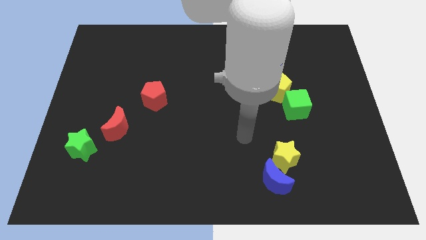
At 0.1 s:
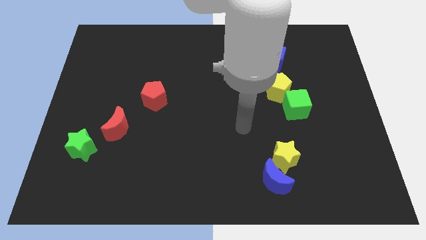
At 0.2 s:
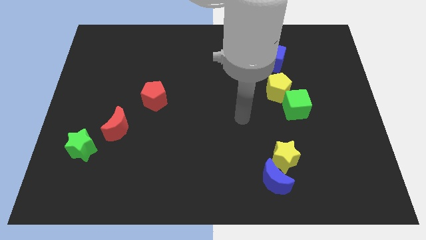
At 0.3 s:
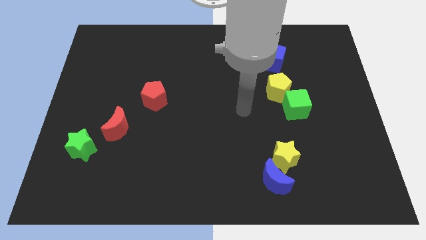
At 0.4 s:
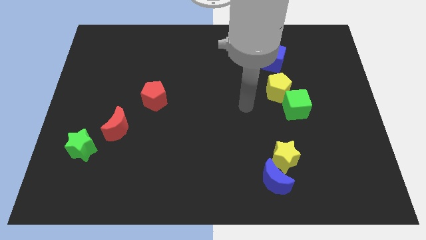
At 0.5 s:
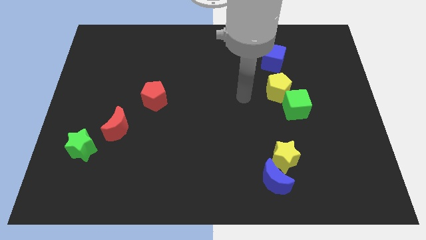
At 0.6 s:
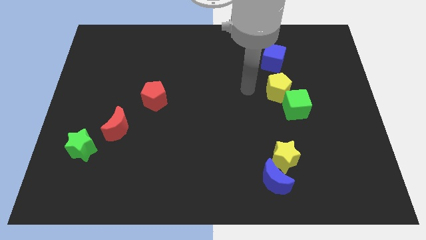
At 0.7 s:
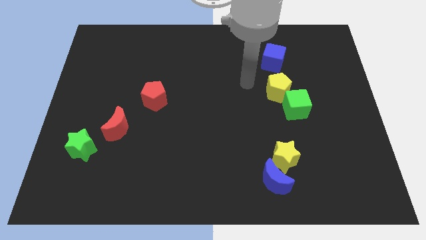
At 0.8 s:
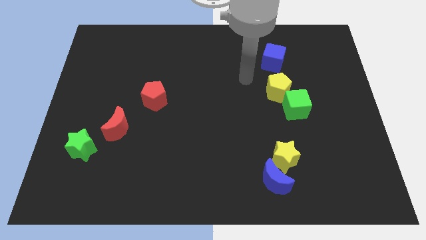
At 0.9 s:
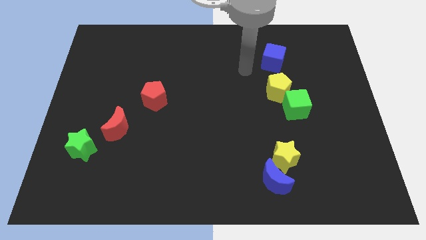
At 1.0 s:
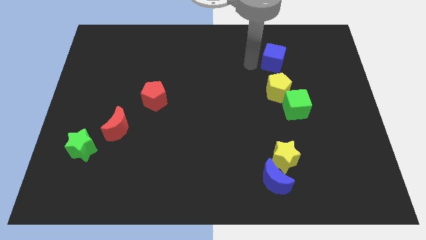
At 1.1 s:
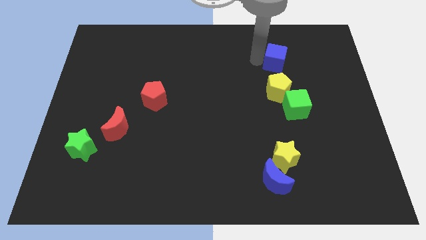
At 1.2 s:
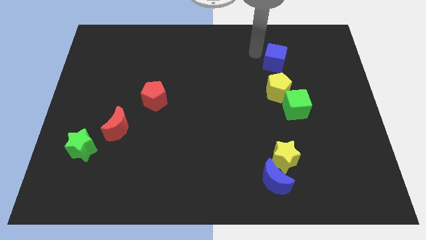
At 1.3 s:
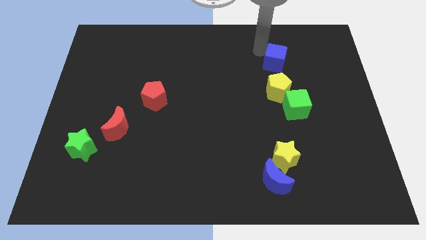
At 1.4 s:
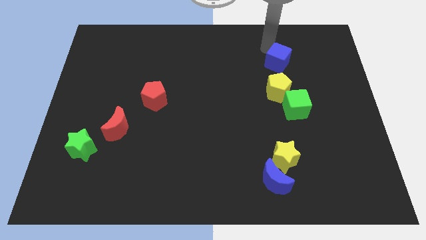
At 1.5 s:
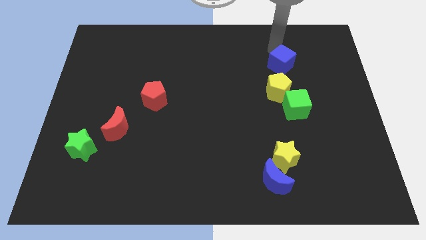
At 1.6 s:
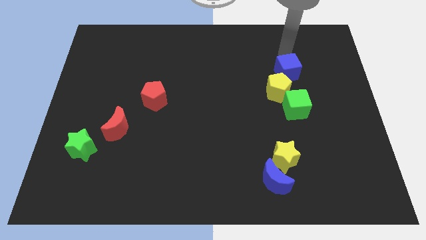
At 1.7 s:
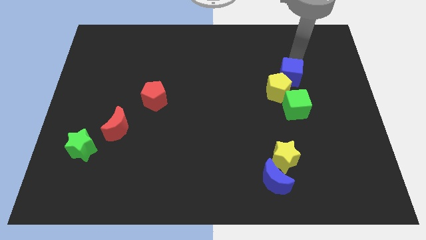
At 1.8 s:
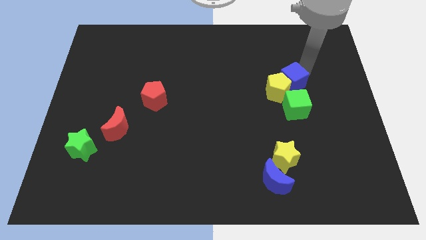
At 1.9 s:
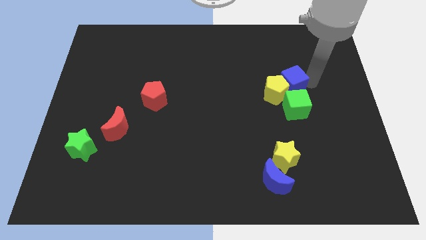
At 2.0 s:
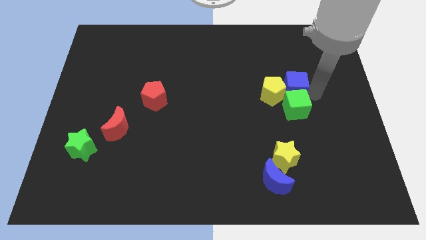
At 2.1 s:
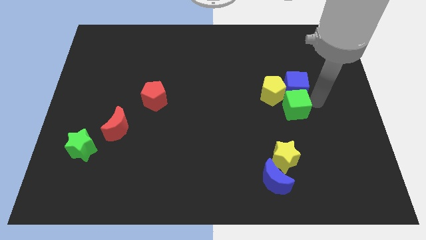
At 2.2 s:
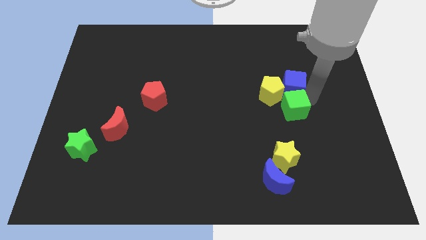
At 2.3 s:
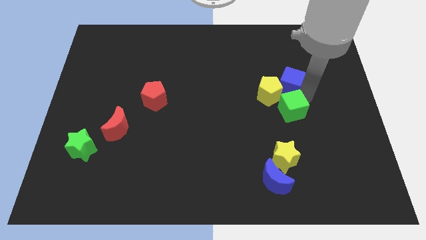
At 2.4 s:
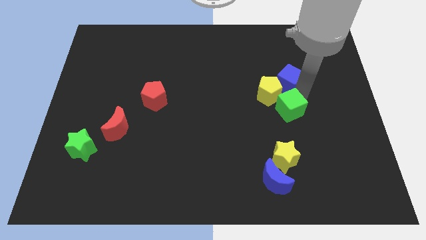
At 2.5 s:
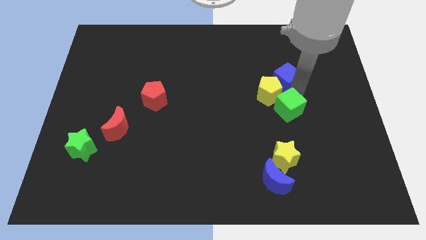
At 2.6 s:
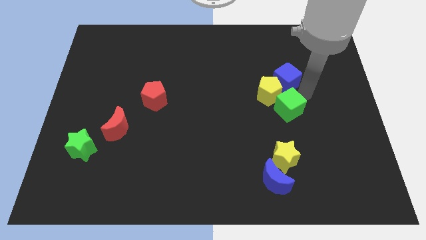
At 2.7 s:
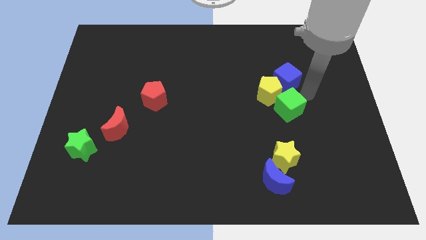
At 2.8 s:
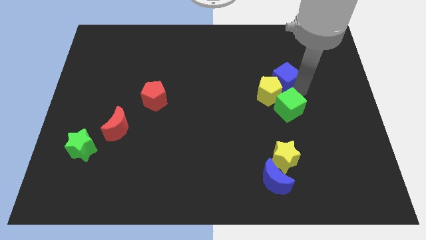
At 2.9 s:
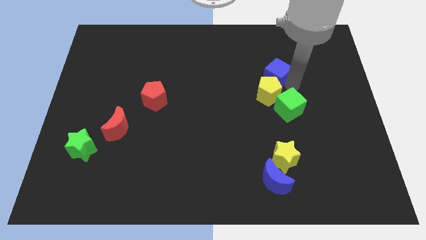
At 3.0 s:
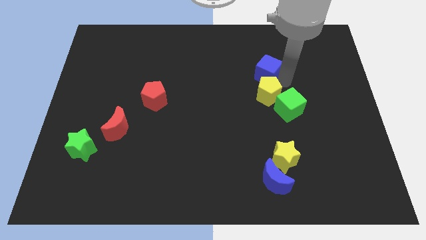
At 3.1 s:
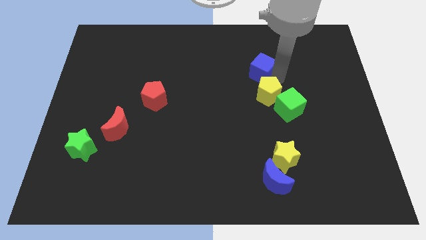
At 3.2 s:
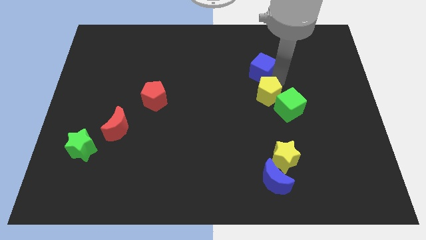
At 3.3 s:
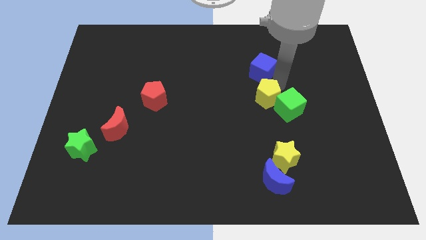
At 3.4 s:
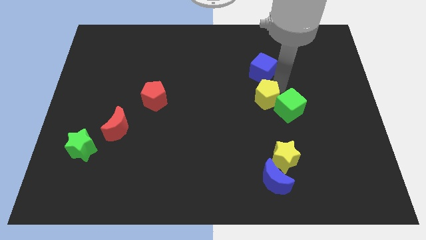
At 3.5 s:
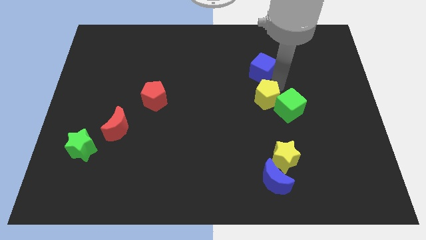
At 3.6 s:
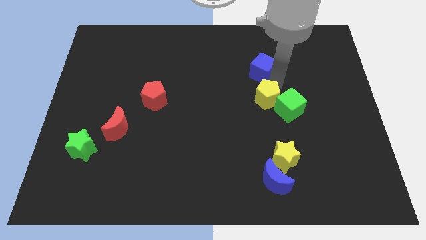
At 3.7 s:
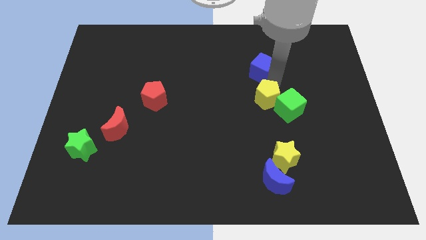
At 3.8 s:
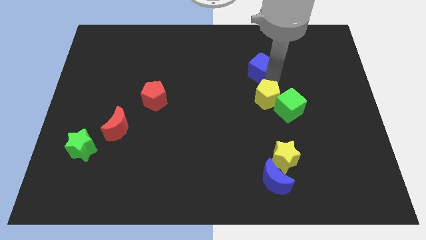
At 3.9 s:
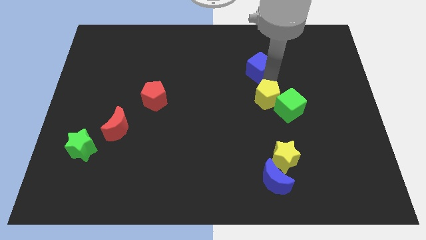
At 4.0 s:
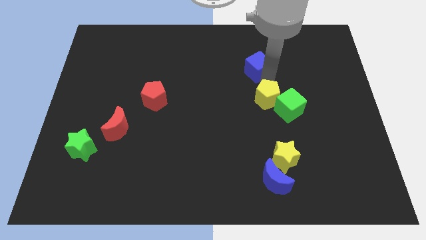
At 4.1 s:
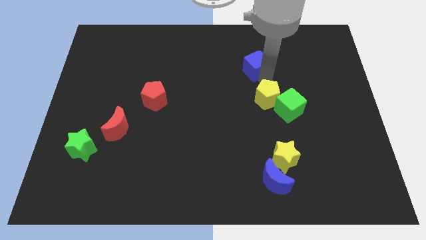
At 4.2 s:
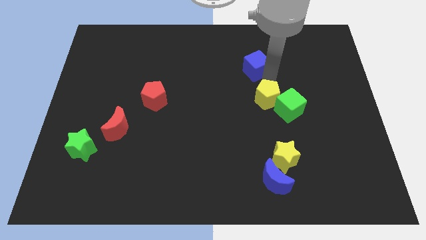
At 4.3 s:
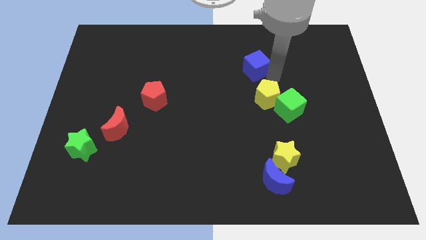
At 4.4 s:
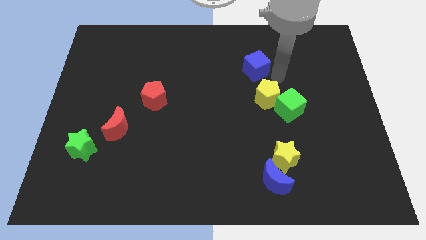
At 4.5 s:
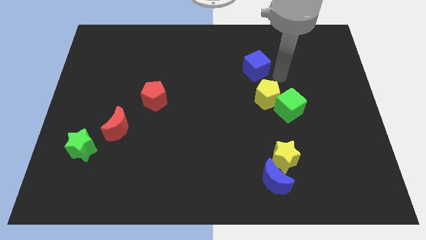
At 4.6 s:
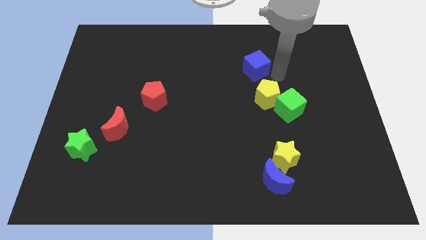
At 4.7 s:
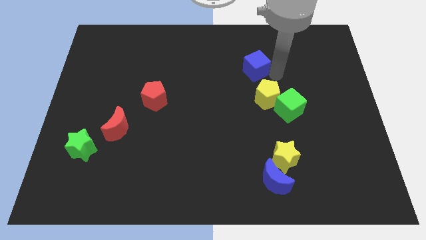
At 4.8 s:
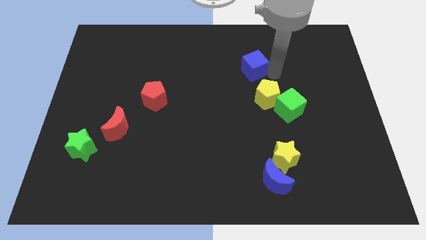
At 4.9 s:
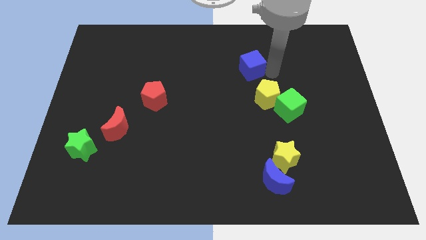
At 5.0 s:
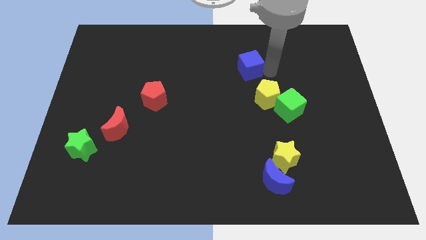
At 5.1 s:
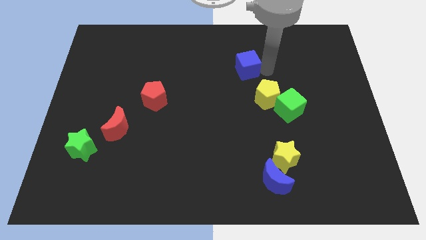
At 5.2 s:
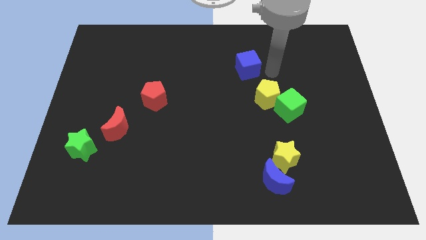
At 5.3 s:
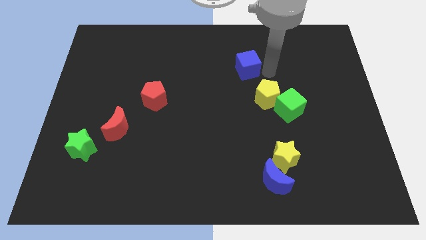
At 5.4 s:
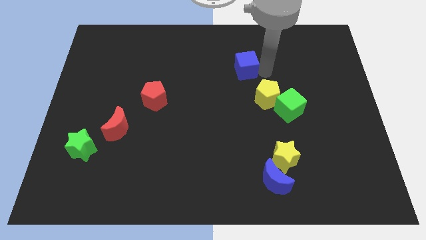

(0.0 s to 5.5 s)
slightly push the blue cube to the left

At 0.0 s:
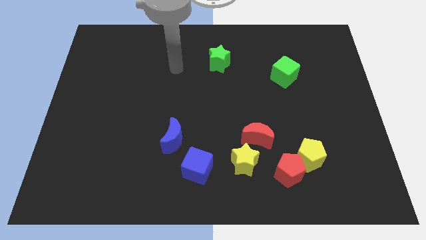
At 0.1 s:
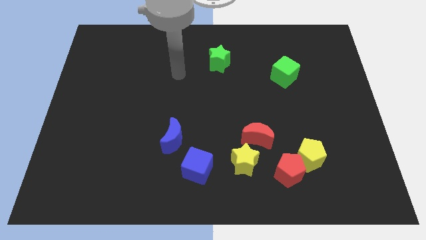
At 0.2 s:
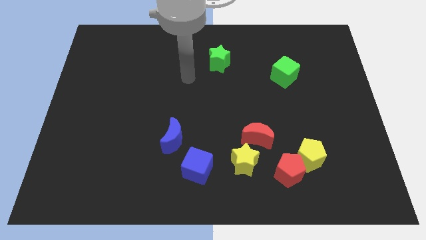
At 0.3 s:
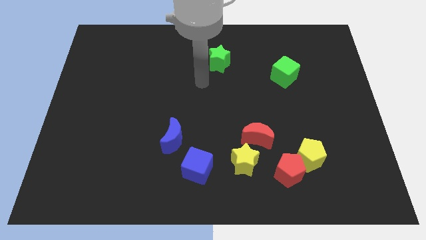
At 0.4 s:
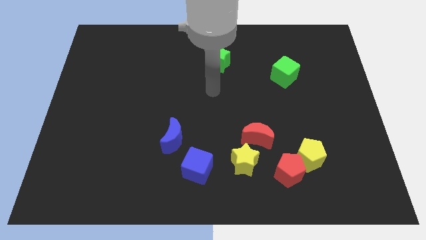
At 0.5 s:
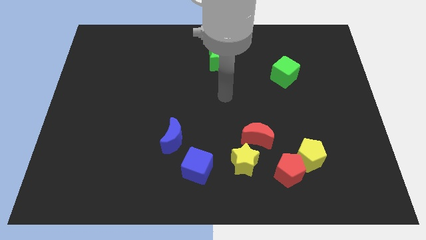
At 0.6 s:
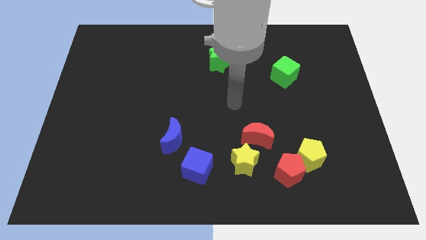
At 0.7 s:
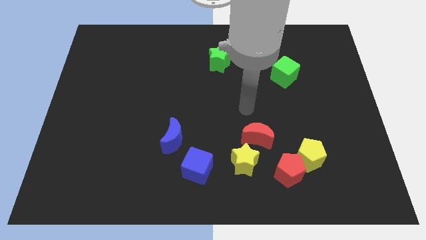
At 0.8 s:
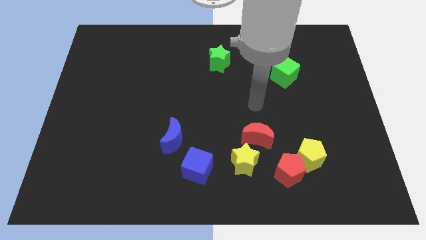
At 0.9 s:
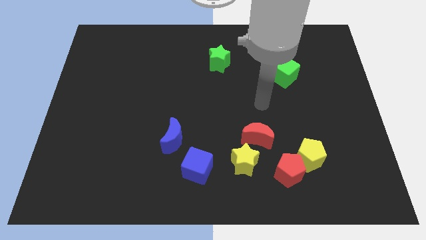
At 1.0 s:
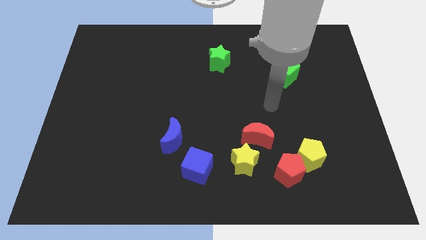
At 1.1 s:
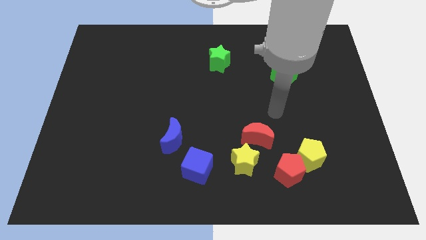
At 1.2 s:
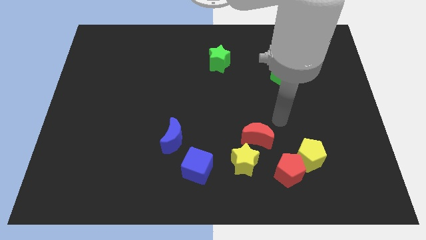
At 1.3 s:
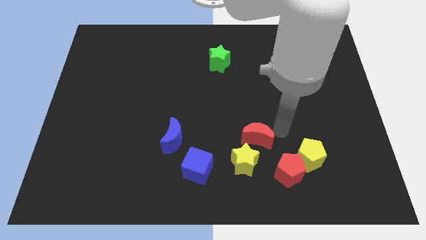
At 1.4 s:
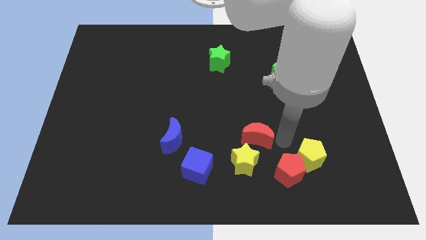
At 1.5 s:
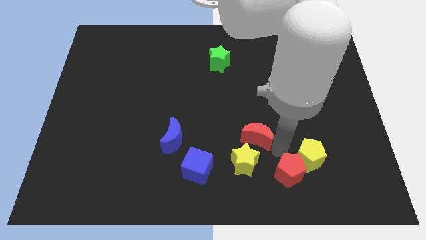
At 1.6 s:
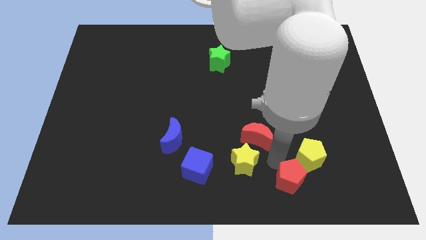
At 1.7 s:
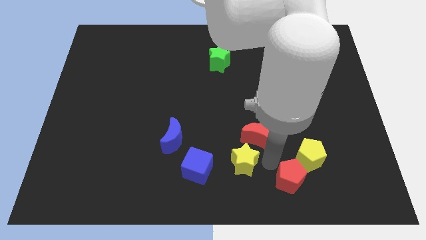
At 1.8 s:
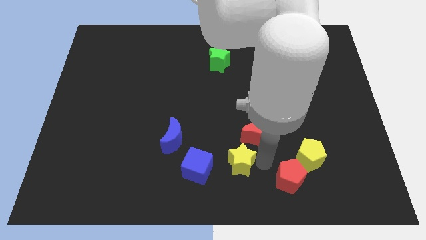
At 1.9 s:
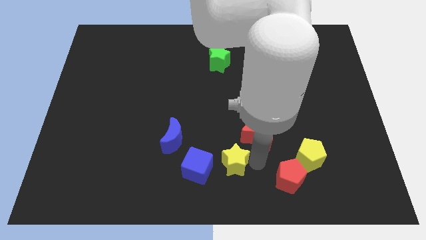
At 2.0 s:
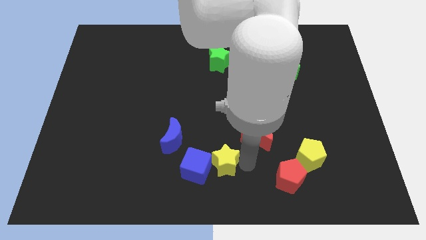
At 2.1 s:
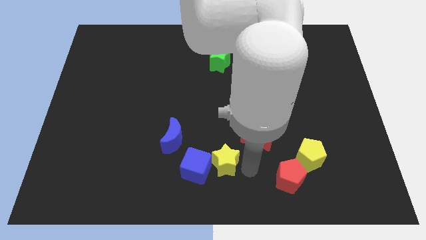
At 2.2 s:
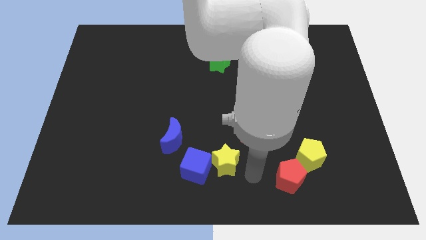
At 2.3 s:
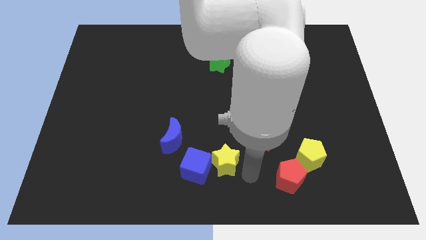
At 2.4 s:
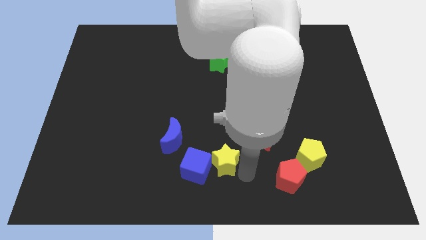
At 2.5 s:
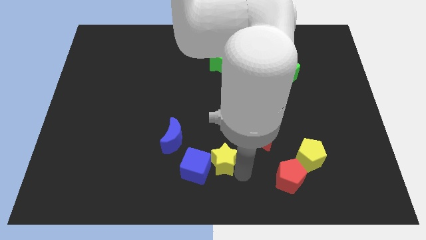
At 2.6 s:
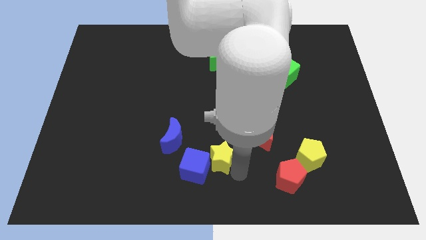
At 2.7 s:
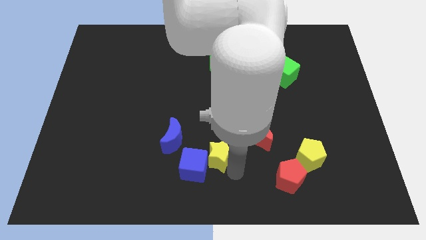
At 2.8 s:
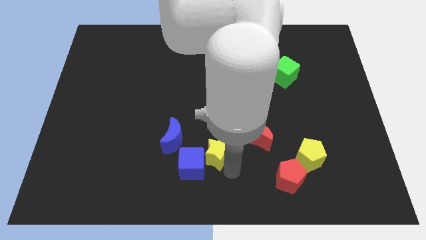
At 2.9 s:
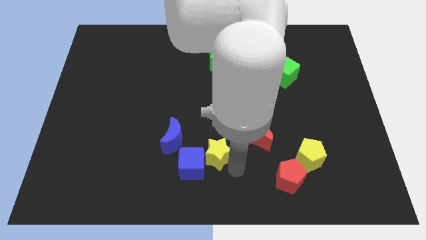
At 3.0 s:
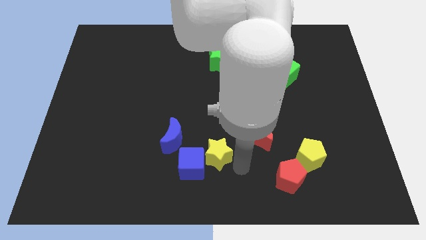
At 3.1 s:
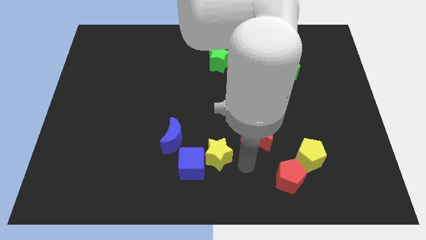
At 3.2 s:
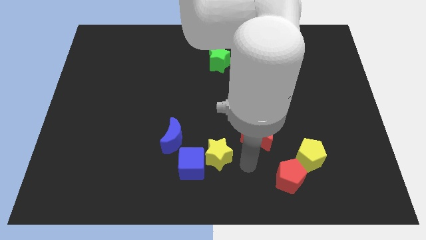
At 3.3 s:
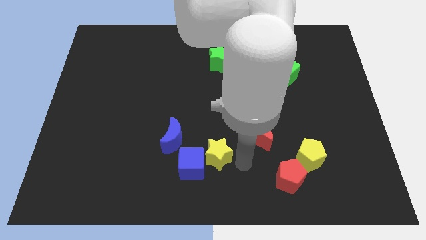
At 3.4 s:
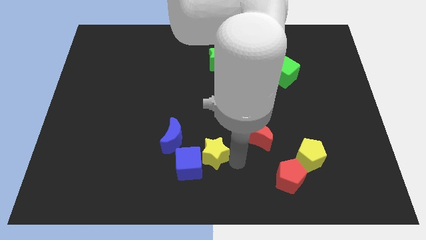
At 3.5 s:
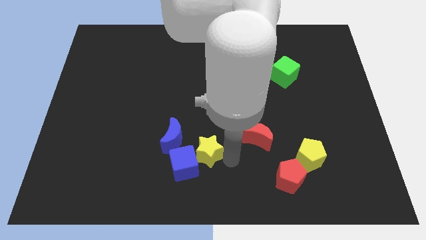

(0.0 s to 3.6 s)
slightly slide the yellow star to the left
